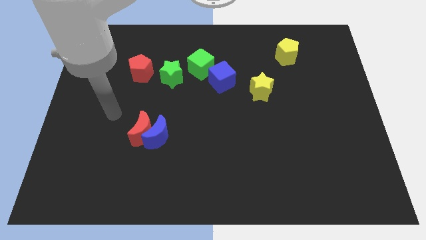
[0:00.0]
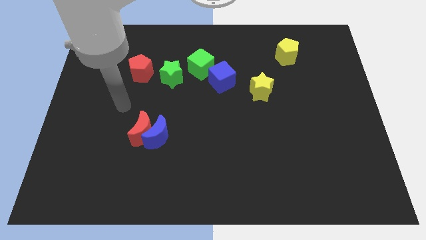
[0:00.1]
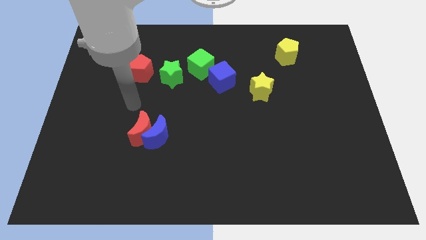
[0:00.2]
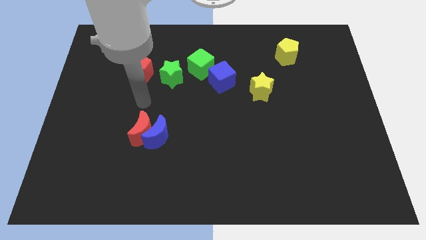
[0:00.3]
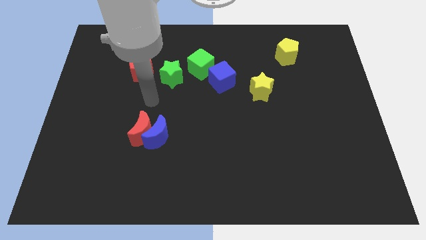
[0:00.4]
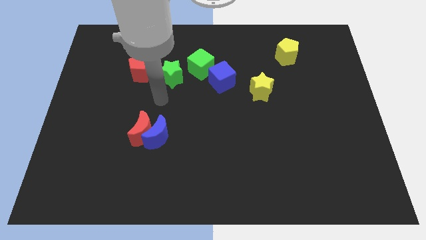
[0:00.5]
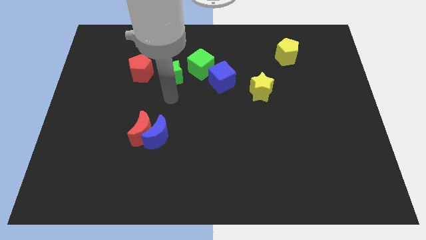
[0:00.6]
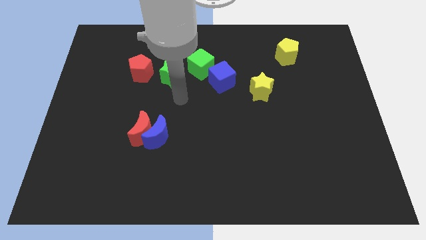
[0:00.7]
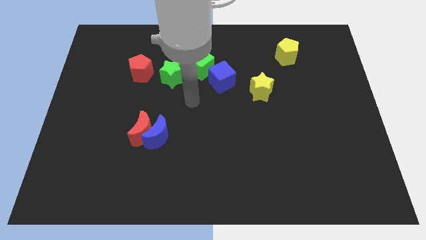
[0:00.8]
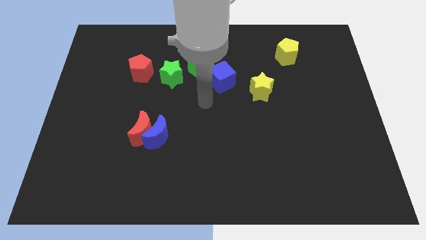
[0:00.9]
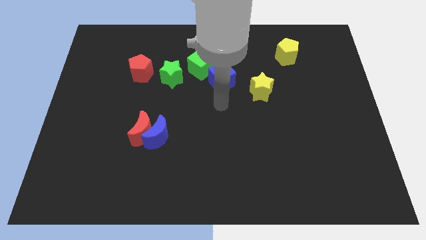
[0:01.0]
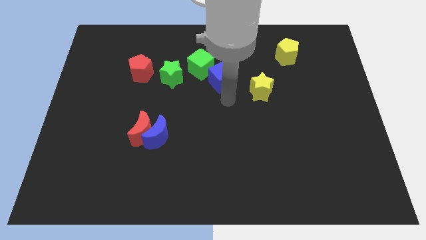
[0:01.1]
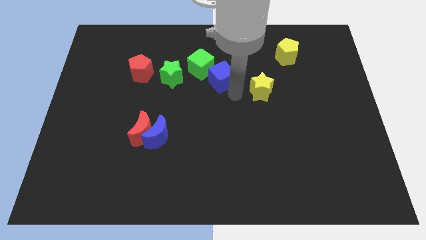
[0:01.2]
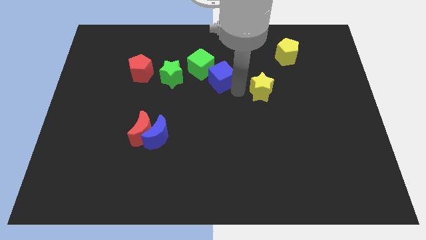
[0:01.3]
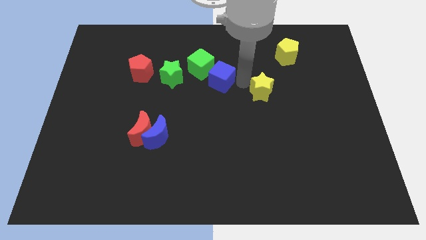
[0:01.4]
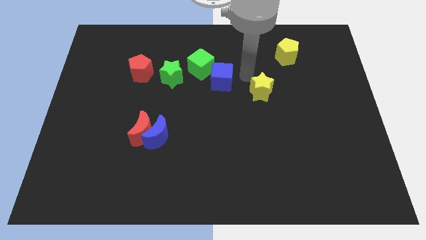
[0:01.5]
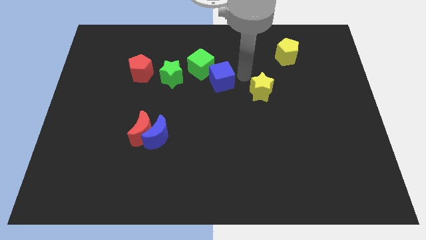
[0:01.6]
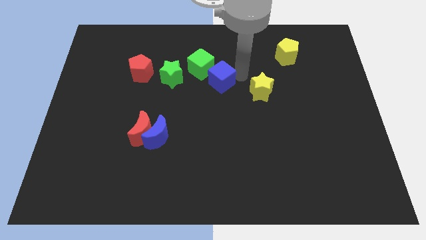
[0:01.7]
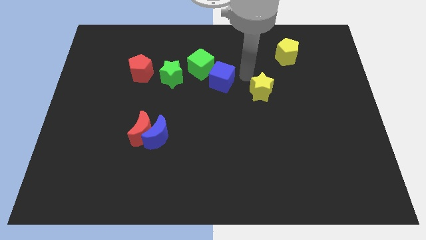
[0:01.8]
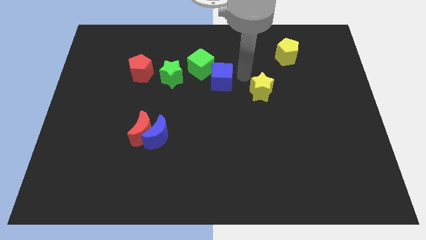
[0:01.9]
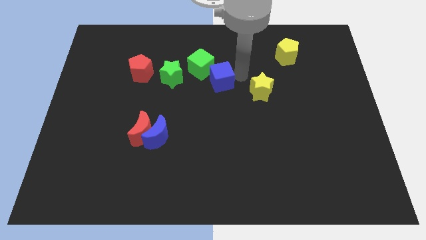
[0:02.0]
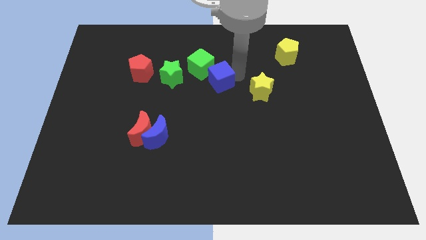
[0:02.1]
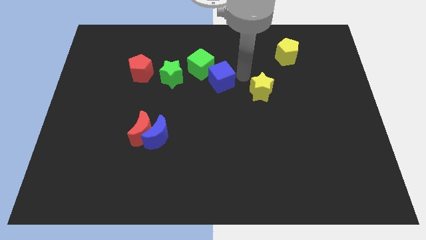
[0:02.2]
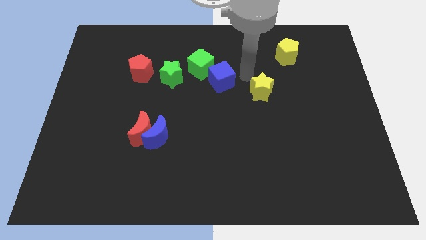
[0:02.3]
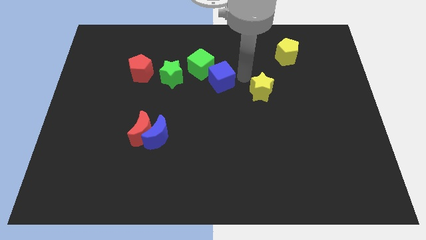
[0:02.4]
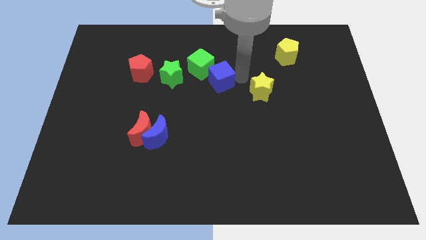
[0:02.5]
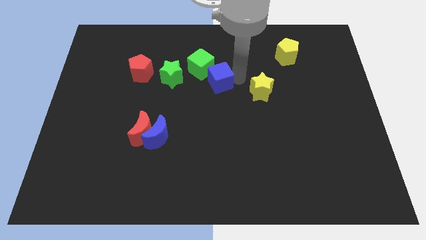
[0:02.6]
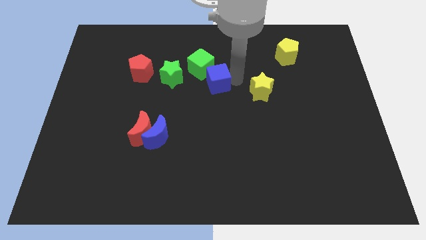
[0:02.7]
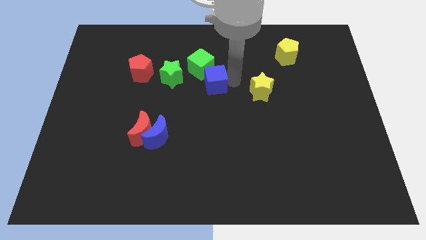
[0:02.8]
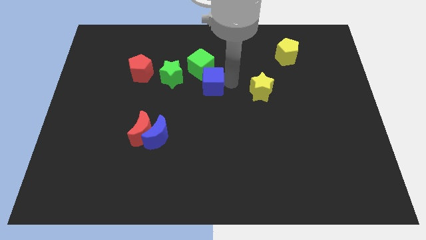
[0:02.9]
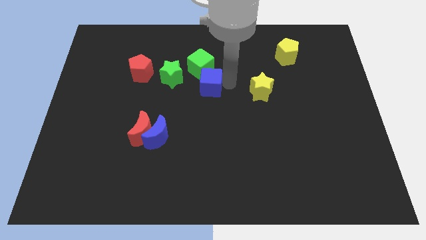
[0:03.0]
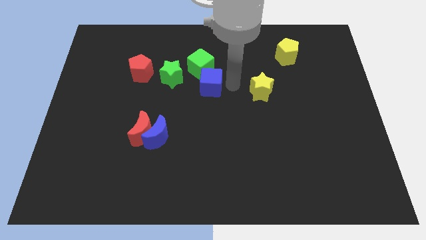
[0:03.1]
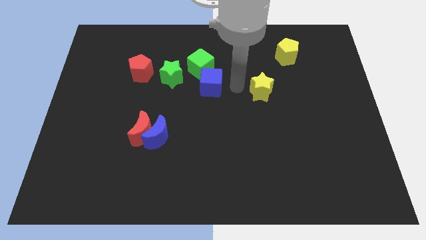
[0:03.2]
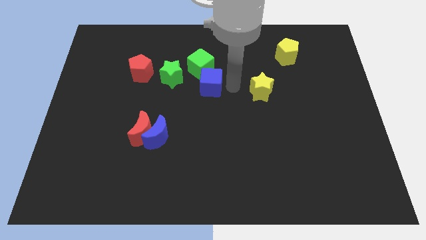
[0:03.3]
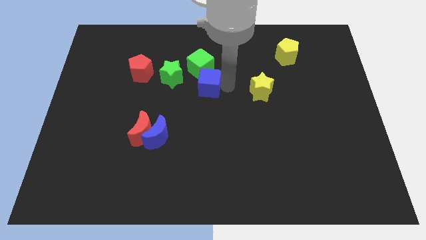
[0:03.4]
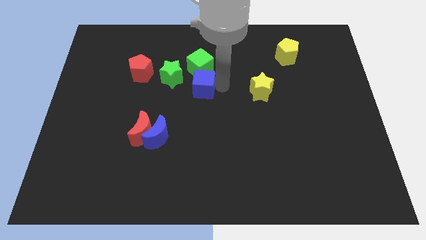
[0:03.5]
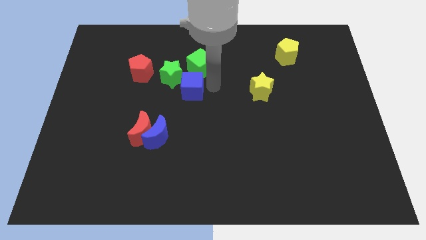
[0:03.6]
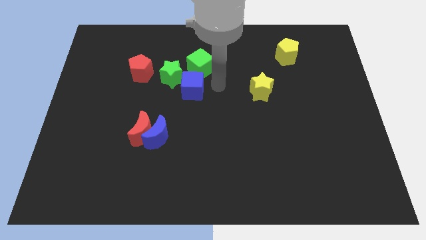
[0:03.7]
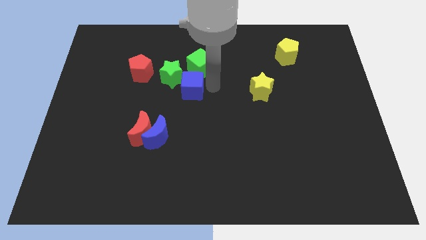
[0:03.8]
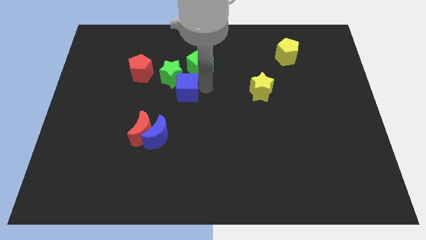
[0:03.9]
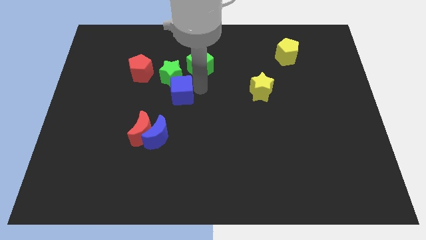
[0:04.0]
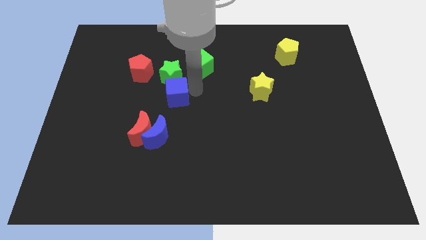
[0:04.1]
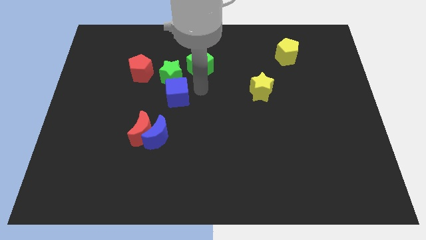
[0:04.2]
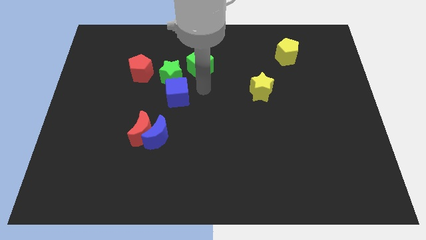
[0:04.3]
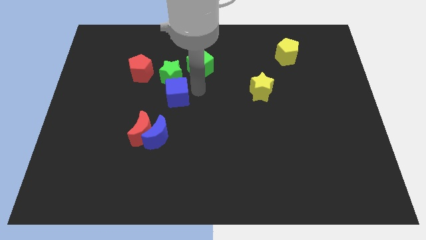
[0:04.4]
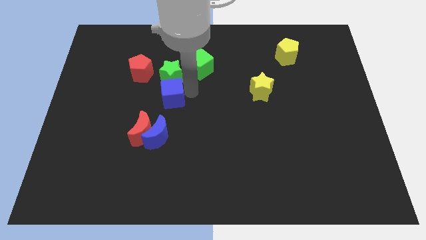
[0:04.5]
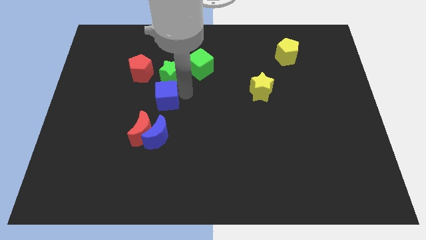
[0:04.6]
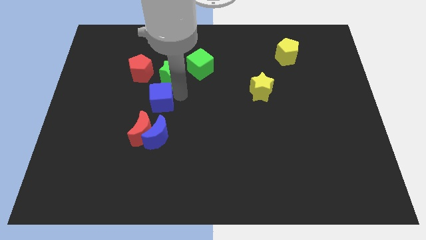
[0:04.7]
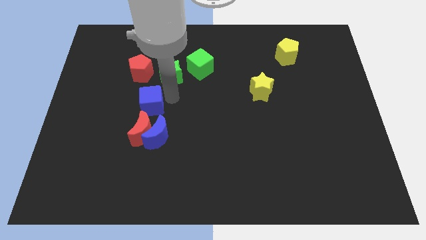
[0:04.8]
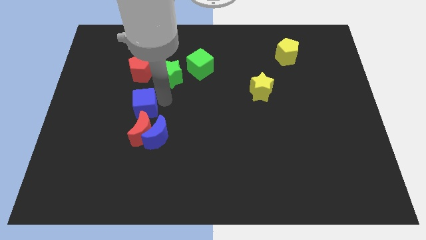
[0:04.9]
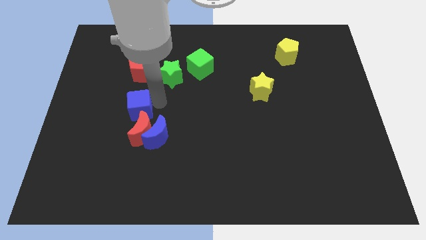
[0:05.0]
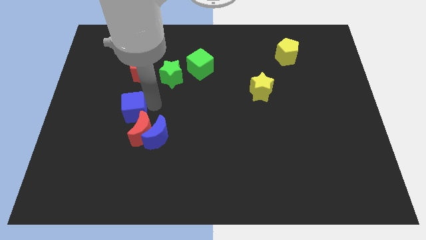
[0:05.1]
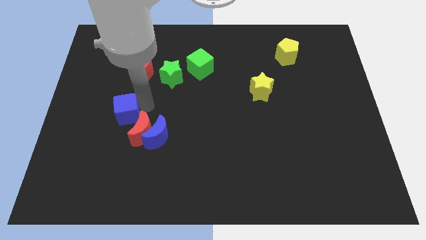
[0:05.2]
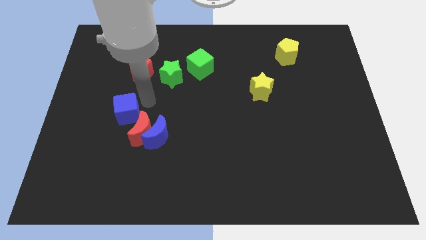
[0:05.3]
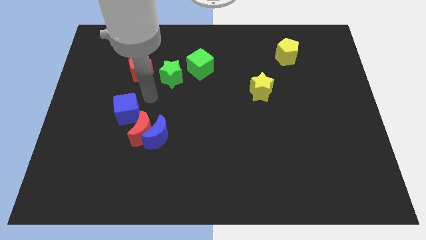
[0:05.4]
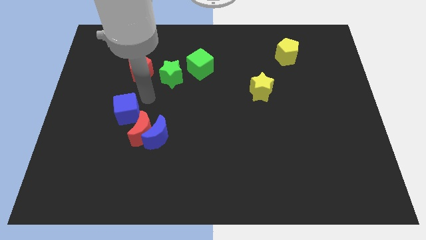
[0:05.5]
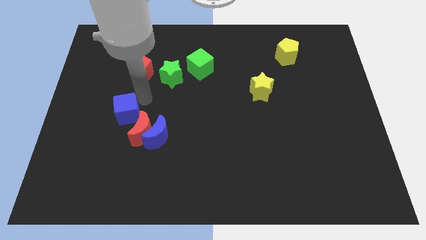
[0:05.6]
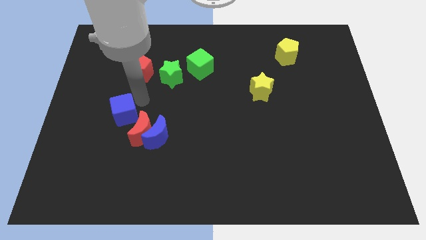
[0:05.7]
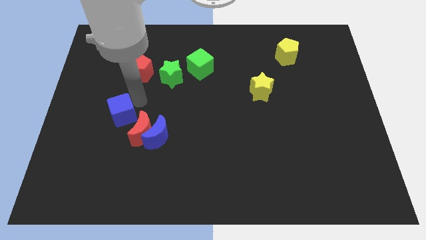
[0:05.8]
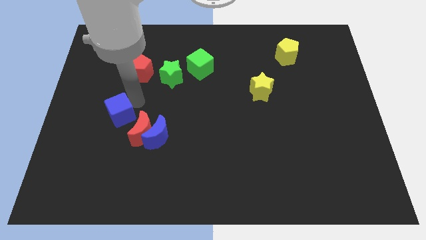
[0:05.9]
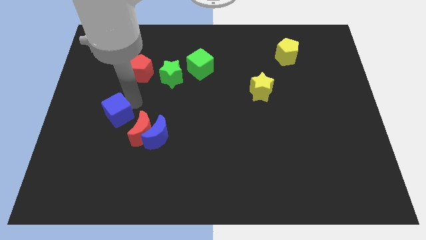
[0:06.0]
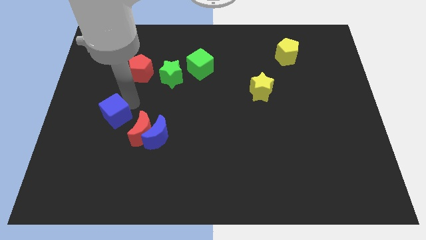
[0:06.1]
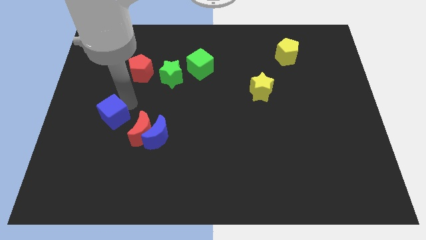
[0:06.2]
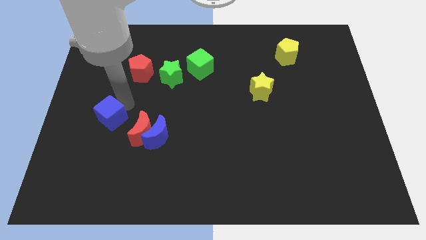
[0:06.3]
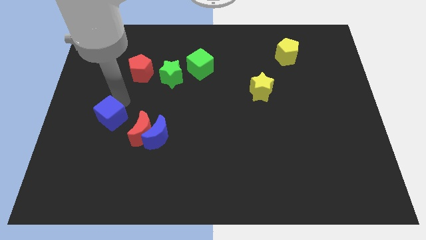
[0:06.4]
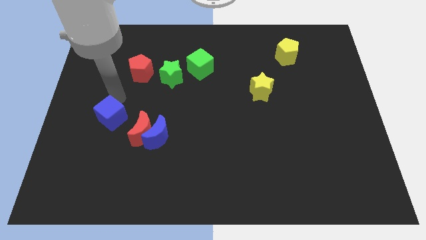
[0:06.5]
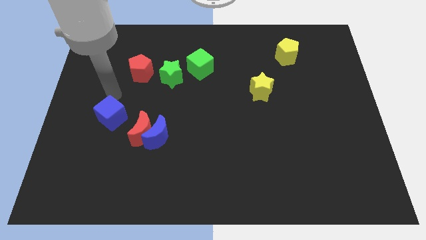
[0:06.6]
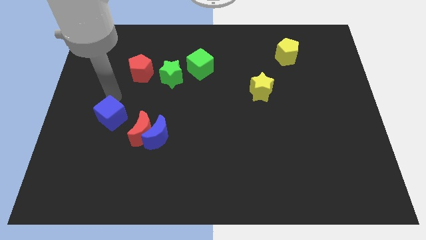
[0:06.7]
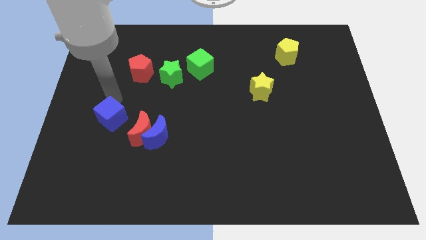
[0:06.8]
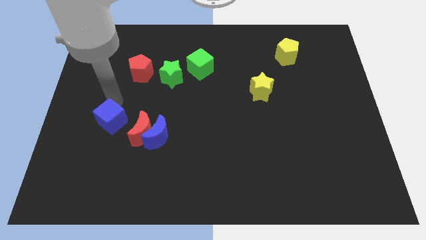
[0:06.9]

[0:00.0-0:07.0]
slide the blue cube just left of the blue moon

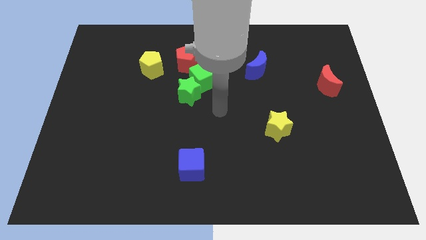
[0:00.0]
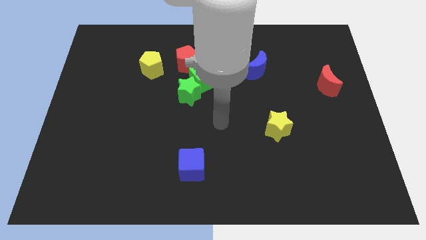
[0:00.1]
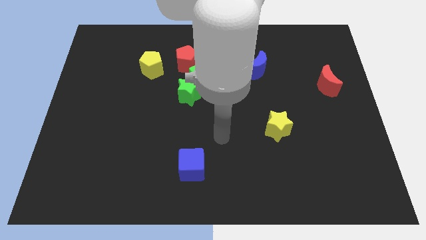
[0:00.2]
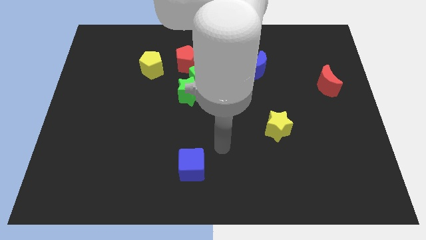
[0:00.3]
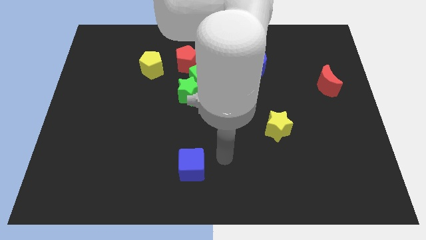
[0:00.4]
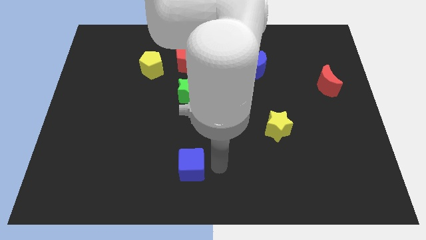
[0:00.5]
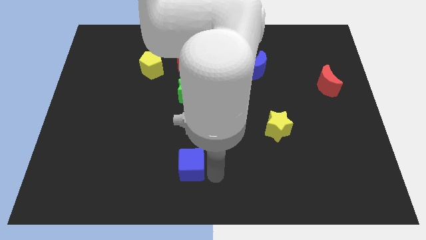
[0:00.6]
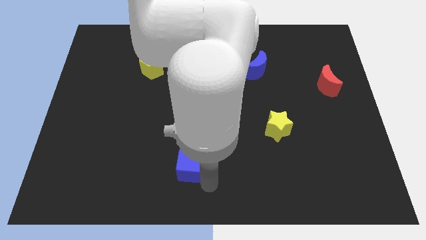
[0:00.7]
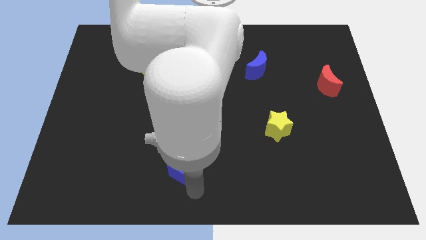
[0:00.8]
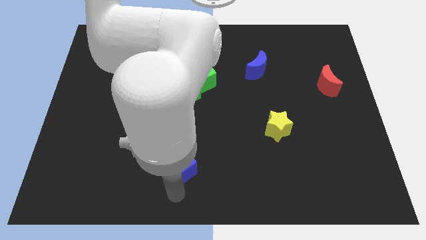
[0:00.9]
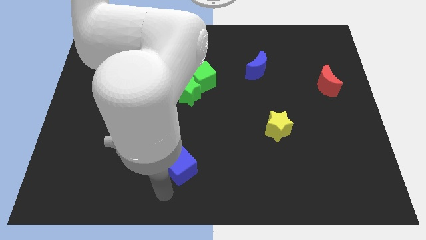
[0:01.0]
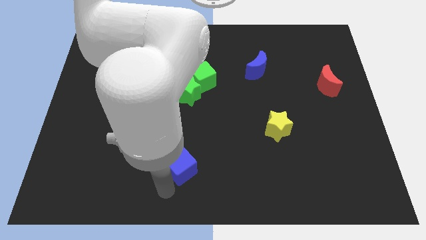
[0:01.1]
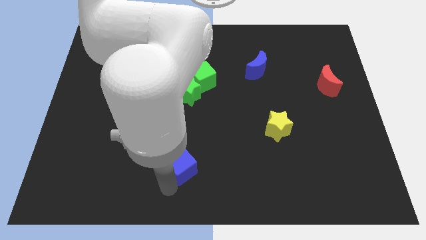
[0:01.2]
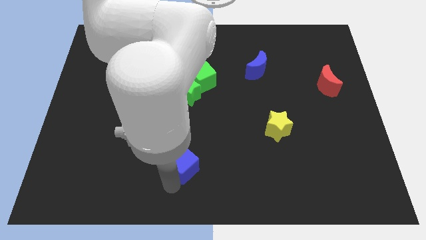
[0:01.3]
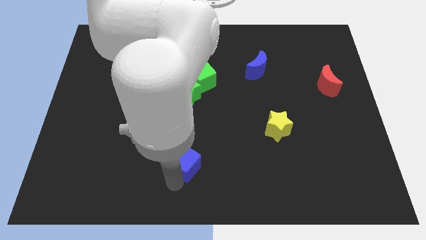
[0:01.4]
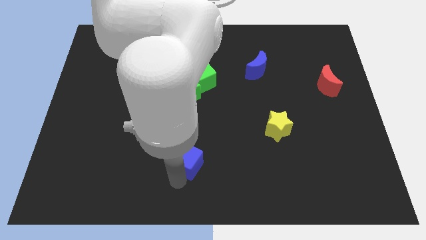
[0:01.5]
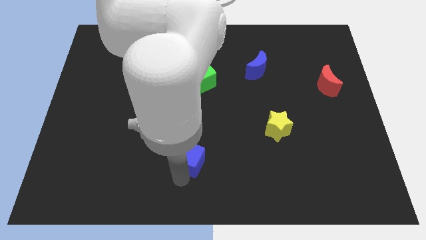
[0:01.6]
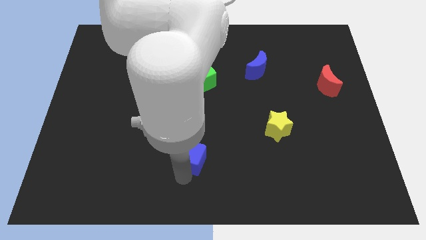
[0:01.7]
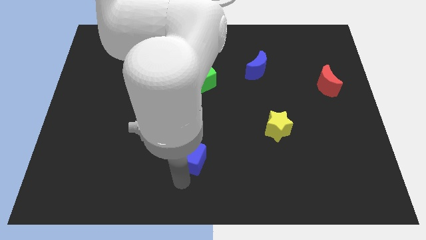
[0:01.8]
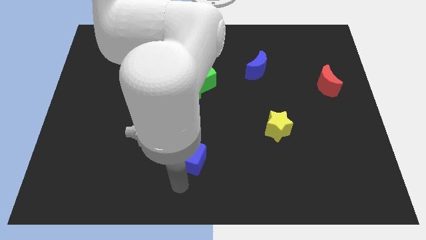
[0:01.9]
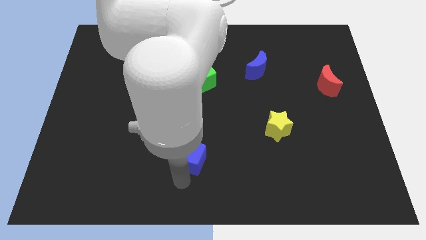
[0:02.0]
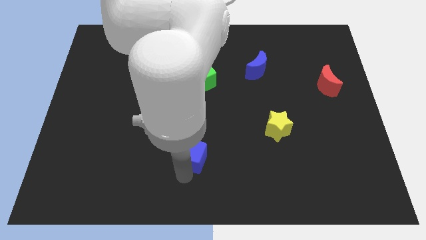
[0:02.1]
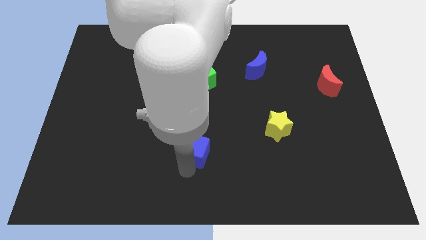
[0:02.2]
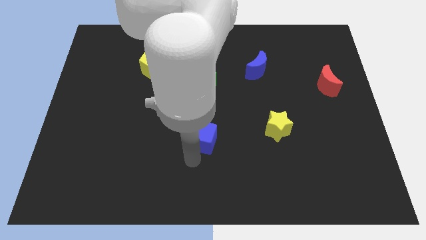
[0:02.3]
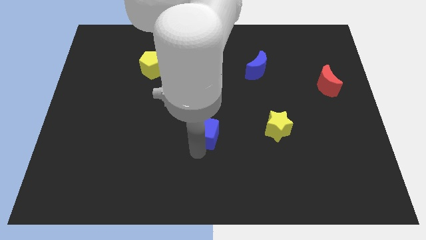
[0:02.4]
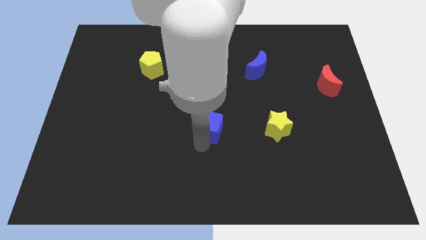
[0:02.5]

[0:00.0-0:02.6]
move the blue cube to the bottom right side of the green star
